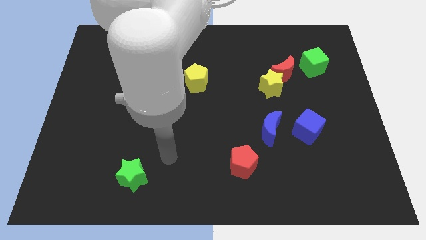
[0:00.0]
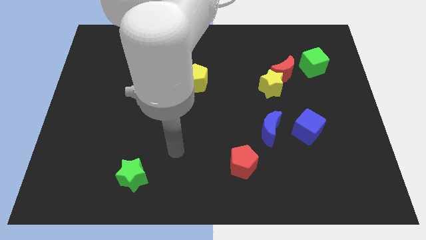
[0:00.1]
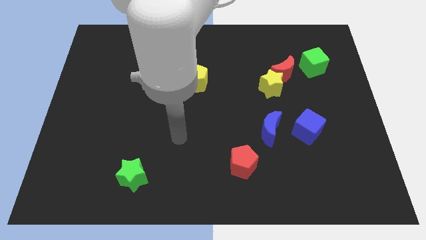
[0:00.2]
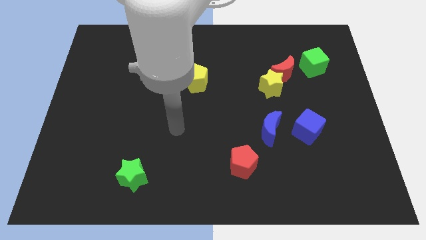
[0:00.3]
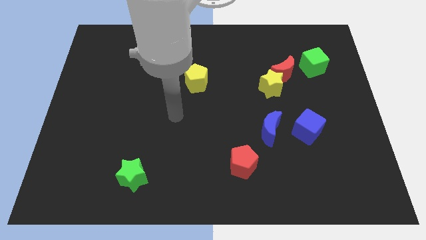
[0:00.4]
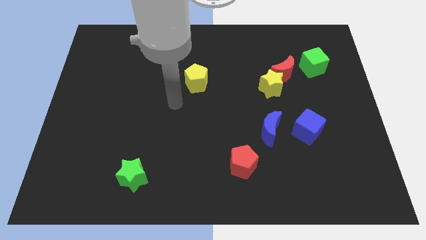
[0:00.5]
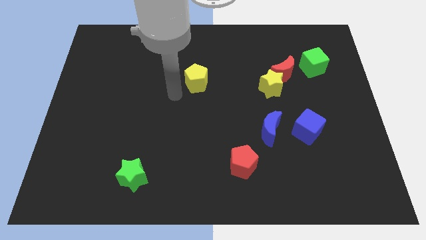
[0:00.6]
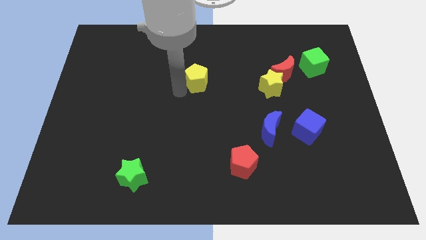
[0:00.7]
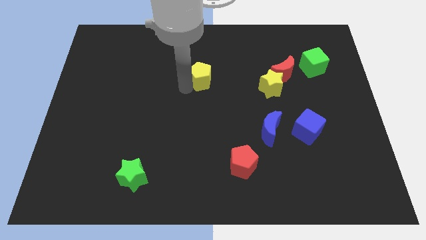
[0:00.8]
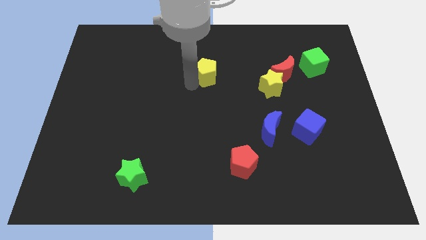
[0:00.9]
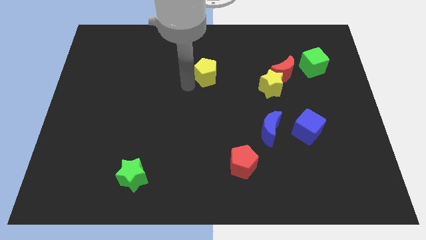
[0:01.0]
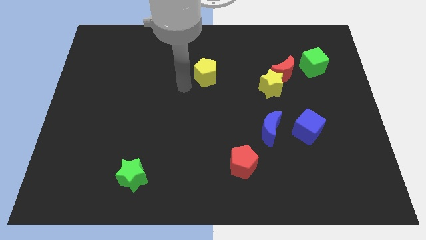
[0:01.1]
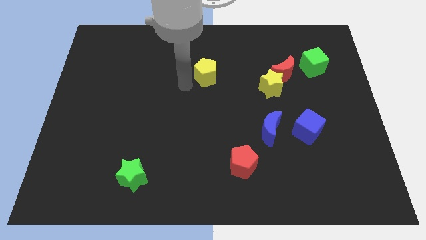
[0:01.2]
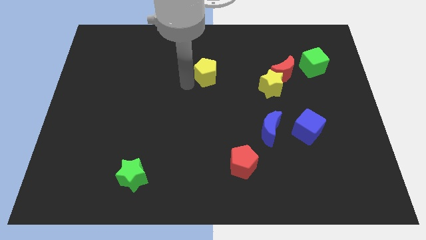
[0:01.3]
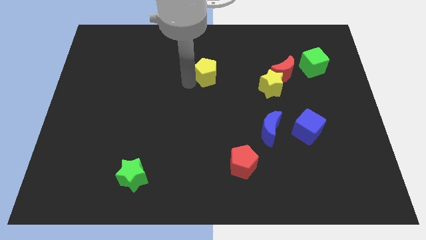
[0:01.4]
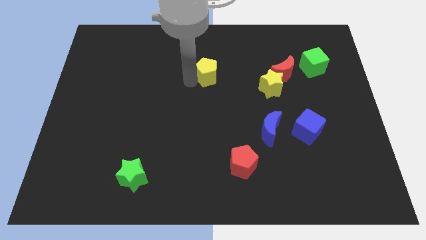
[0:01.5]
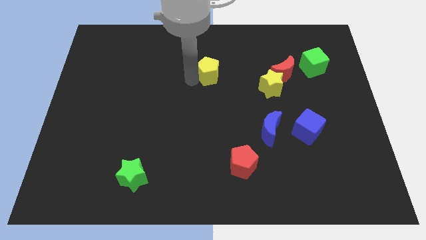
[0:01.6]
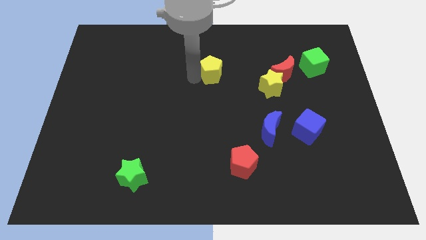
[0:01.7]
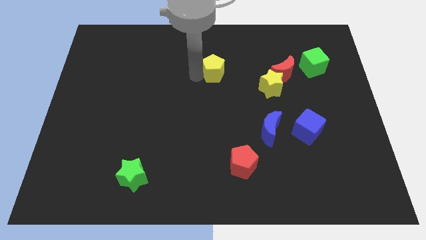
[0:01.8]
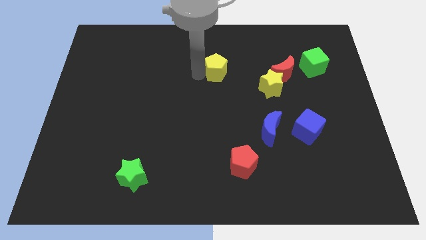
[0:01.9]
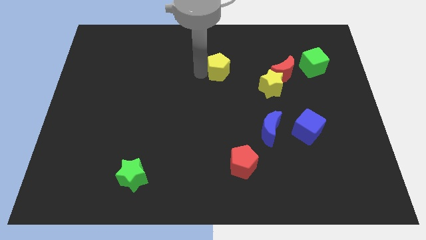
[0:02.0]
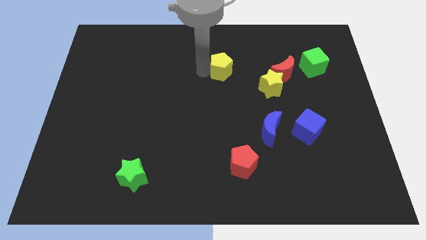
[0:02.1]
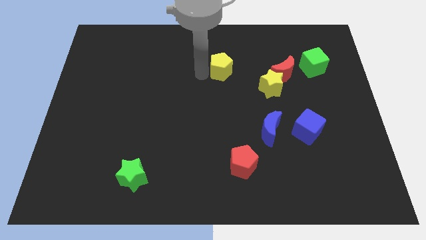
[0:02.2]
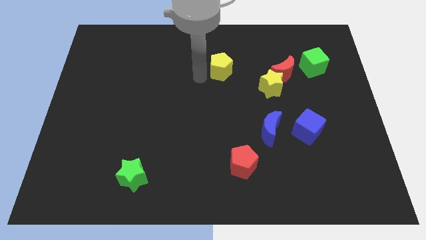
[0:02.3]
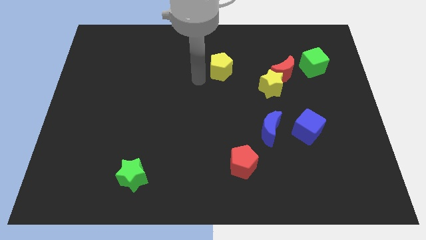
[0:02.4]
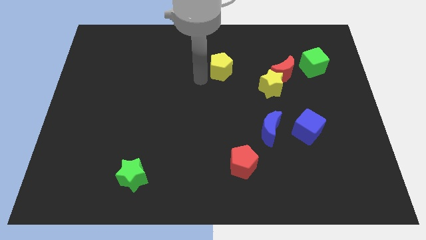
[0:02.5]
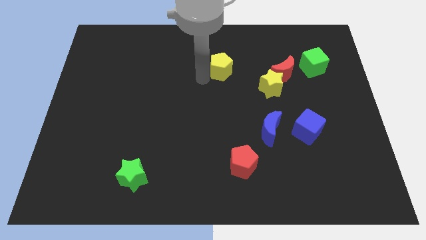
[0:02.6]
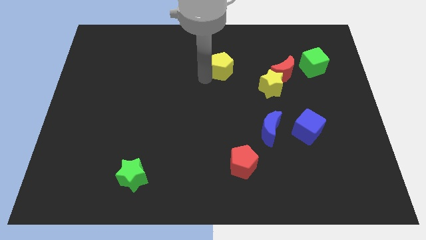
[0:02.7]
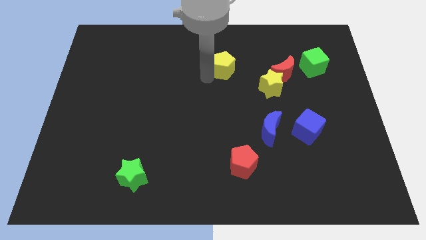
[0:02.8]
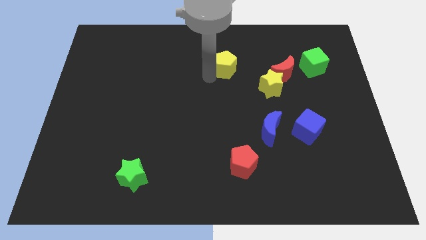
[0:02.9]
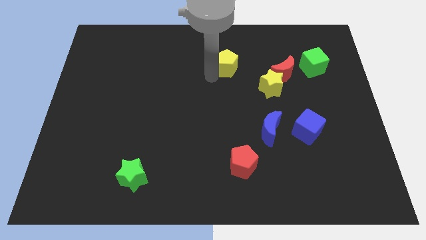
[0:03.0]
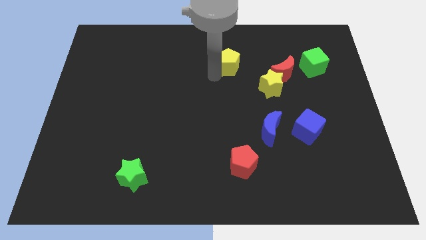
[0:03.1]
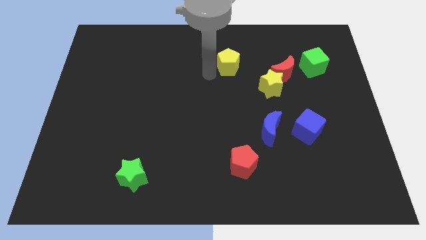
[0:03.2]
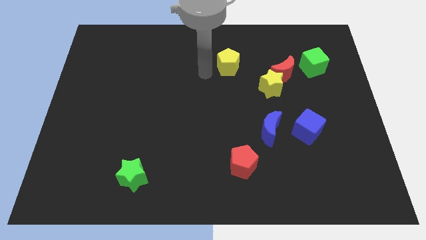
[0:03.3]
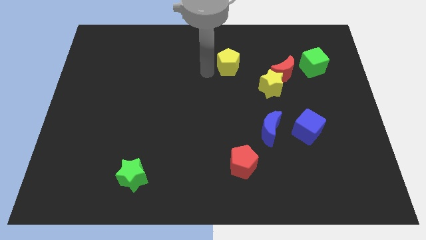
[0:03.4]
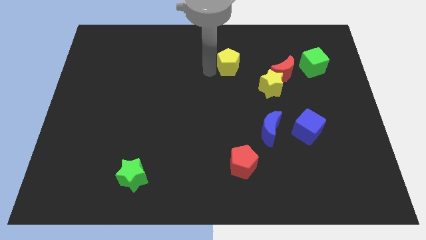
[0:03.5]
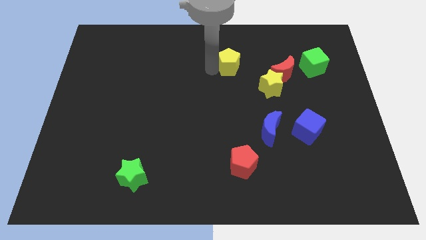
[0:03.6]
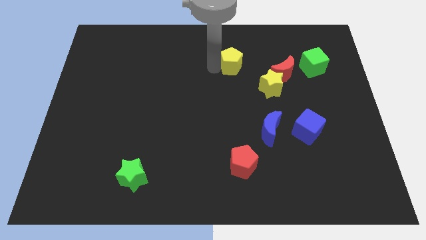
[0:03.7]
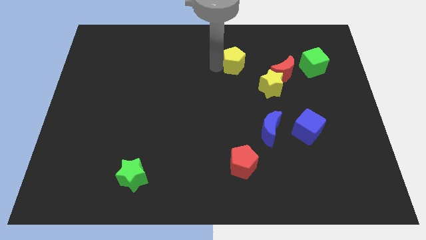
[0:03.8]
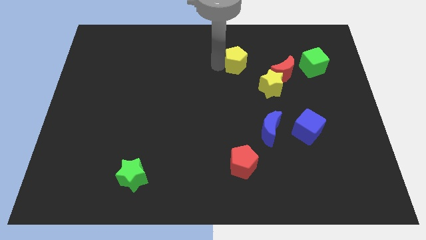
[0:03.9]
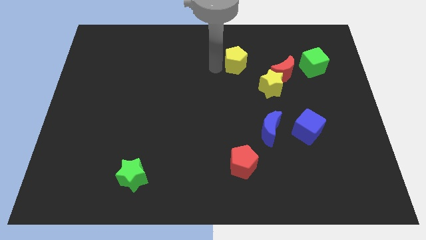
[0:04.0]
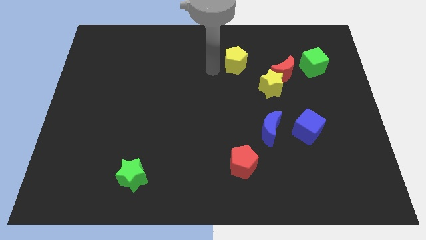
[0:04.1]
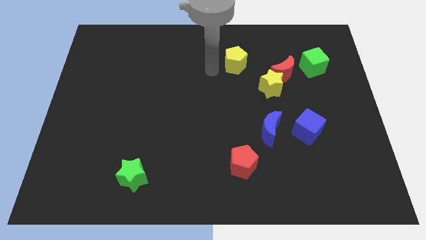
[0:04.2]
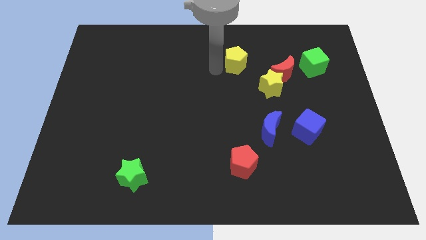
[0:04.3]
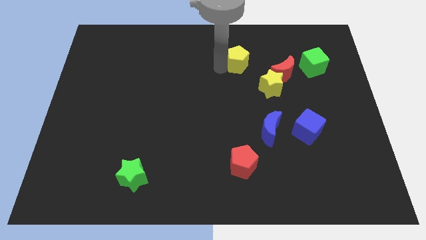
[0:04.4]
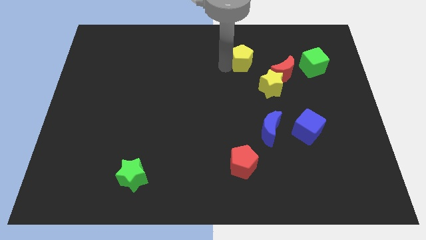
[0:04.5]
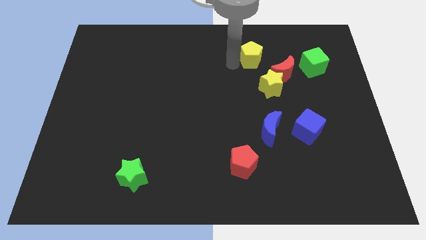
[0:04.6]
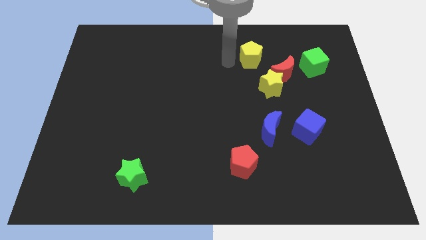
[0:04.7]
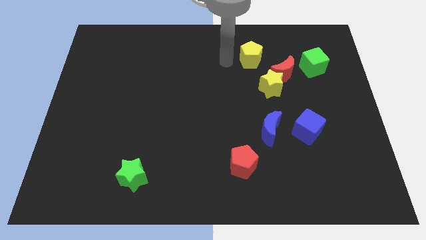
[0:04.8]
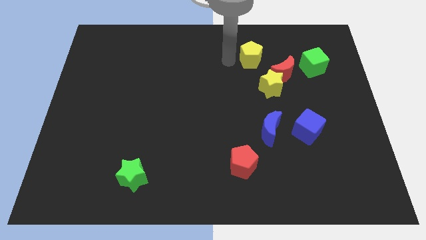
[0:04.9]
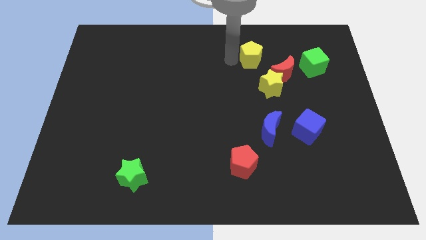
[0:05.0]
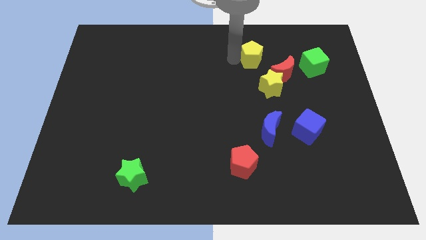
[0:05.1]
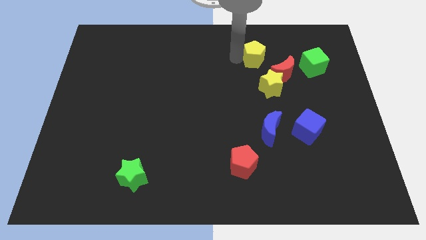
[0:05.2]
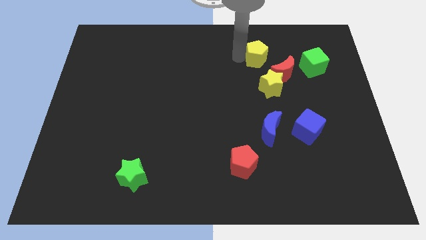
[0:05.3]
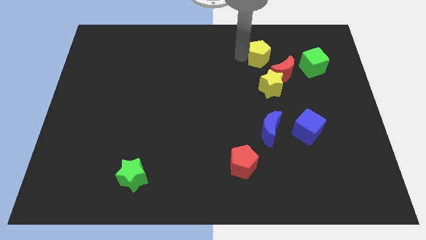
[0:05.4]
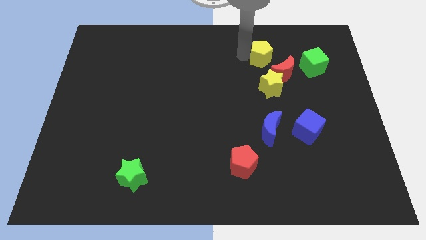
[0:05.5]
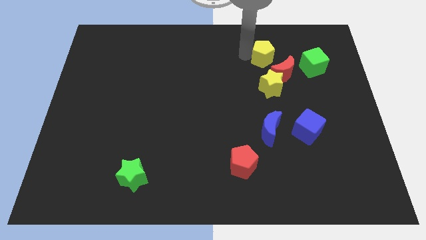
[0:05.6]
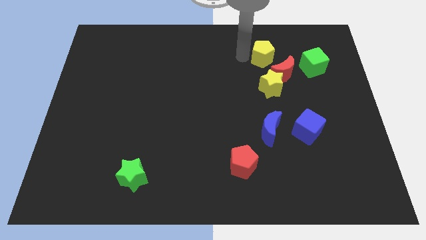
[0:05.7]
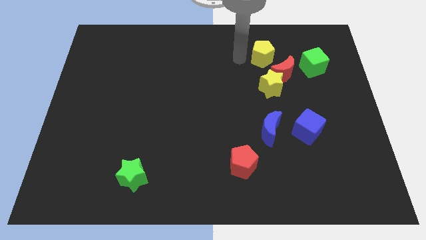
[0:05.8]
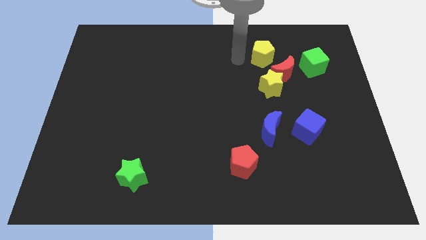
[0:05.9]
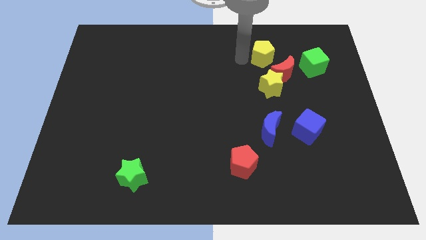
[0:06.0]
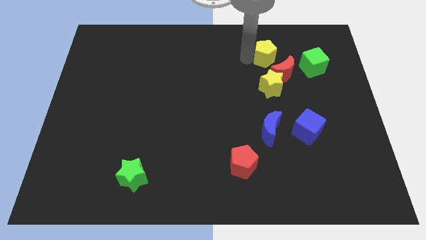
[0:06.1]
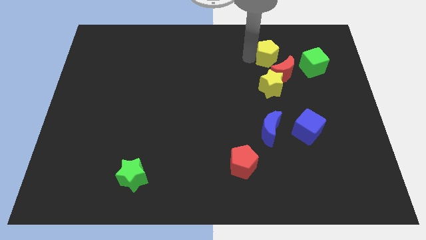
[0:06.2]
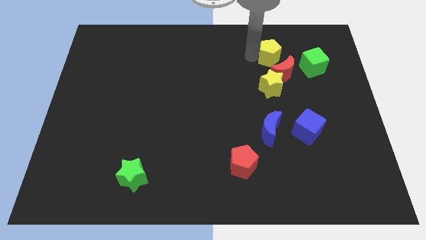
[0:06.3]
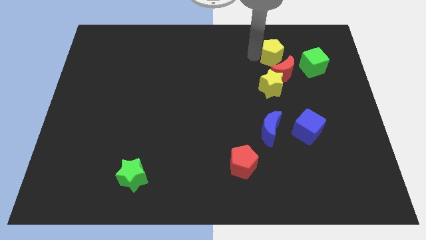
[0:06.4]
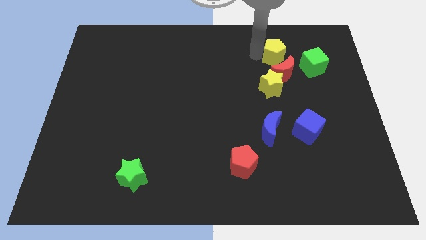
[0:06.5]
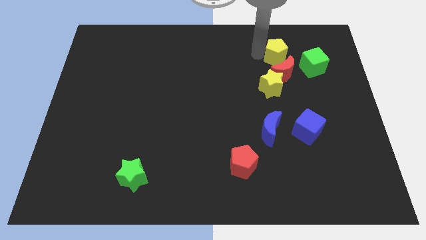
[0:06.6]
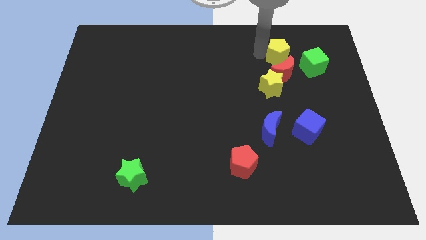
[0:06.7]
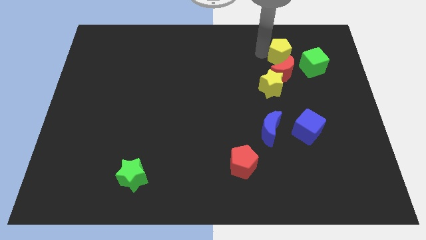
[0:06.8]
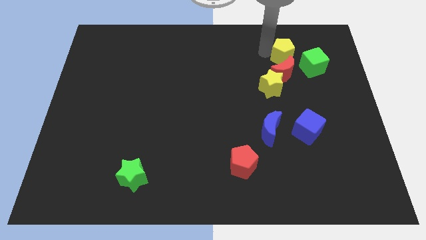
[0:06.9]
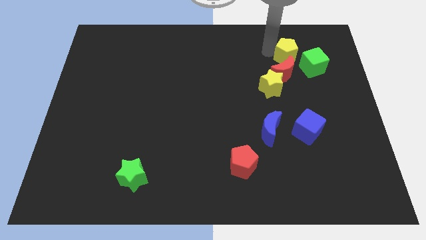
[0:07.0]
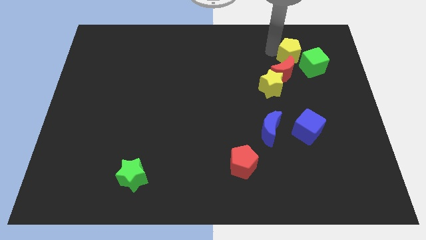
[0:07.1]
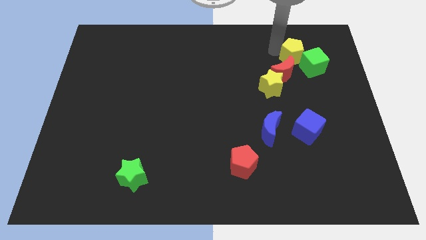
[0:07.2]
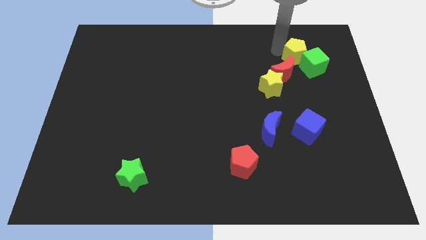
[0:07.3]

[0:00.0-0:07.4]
slide the yellow pentagon towards the green cube

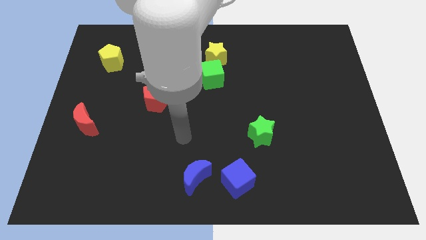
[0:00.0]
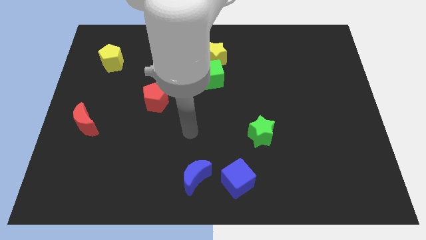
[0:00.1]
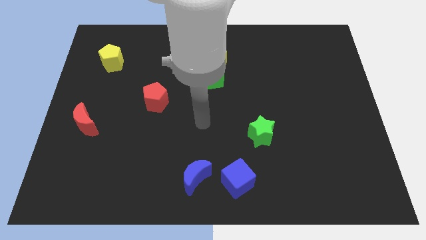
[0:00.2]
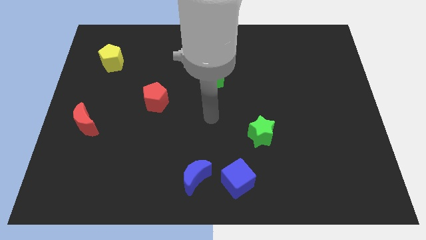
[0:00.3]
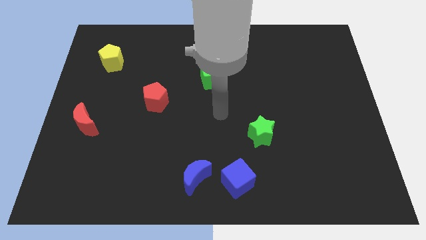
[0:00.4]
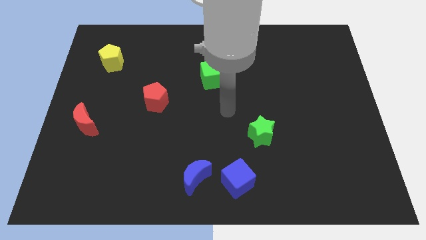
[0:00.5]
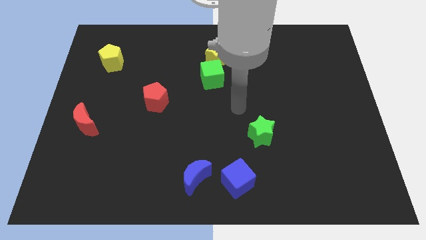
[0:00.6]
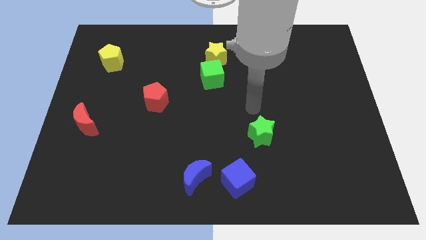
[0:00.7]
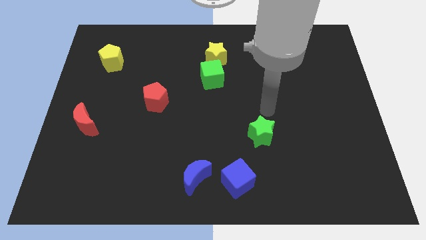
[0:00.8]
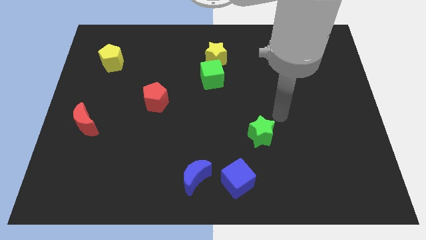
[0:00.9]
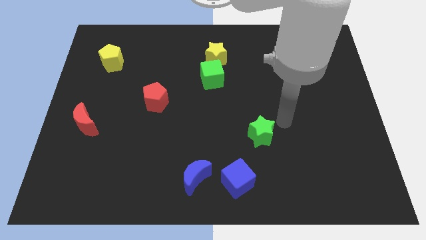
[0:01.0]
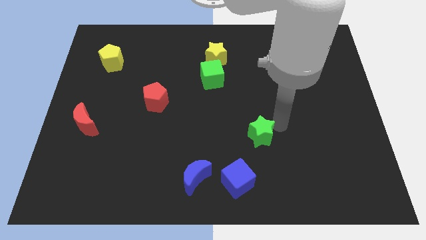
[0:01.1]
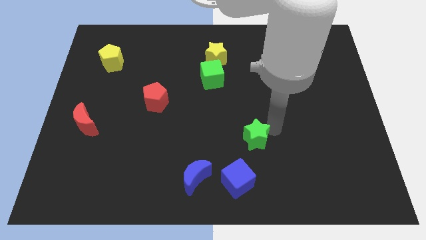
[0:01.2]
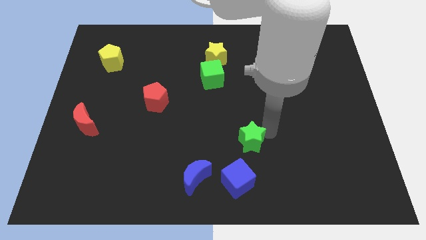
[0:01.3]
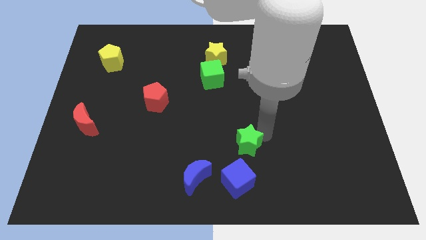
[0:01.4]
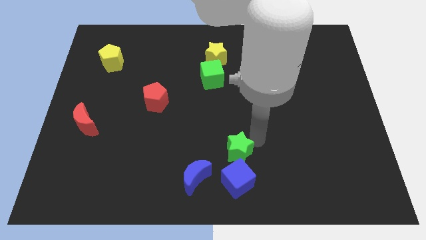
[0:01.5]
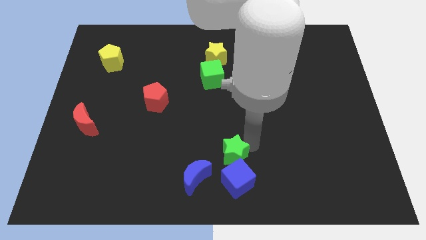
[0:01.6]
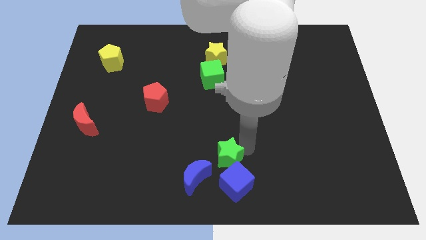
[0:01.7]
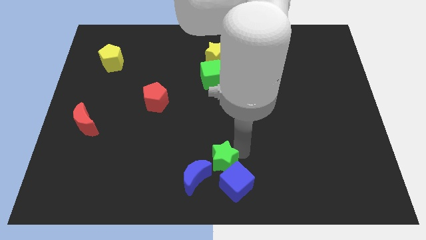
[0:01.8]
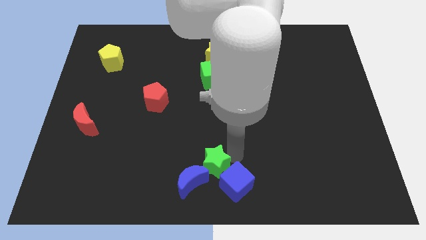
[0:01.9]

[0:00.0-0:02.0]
put the green star to the blue moon
